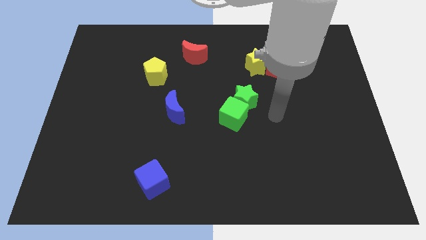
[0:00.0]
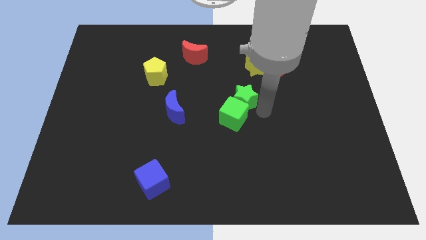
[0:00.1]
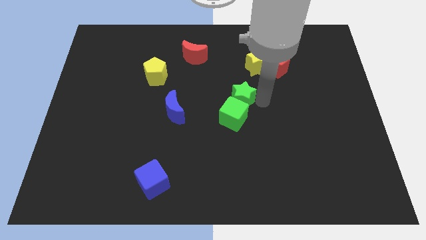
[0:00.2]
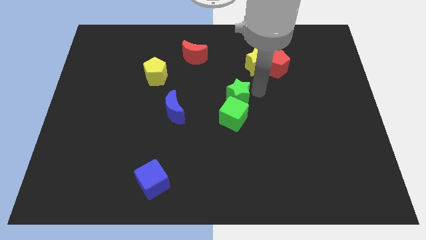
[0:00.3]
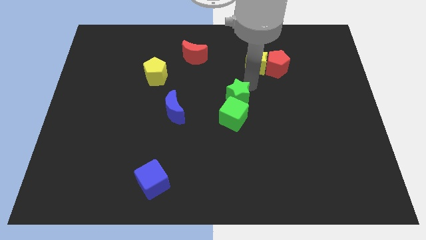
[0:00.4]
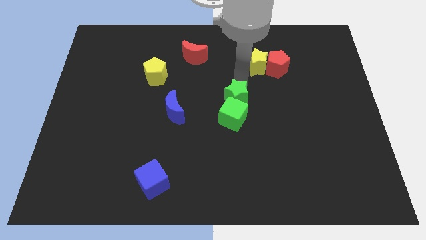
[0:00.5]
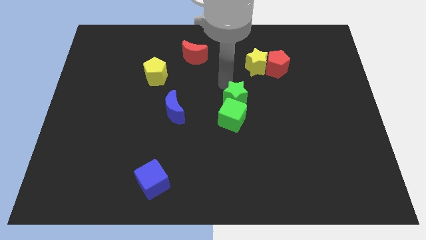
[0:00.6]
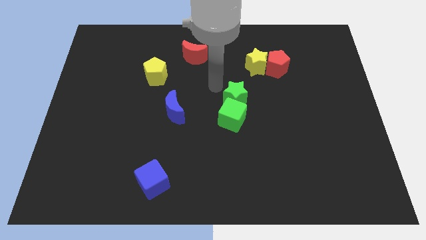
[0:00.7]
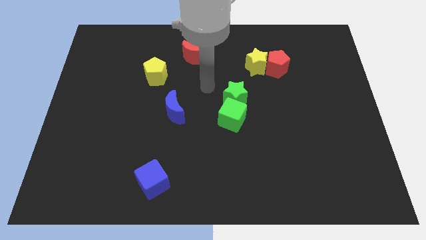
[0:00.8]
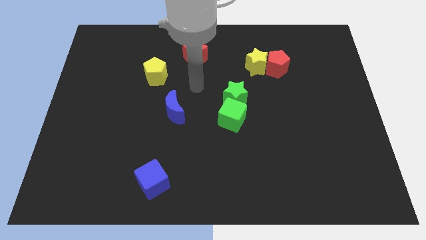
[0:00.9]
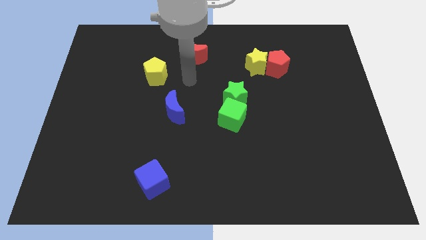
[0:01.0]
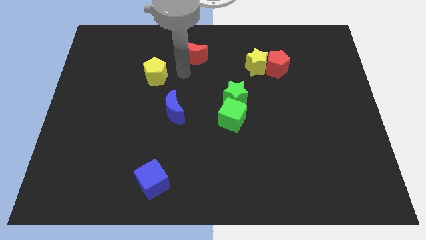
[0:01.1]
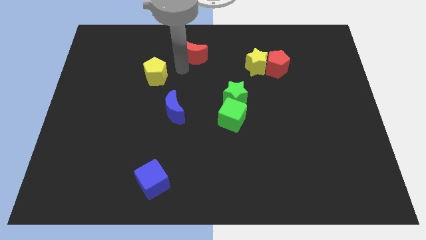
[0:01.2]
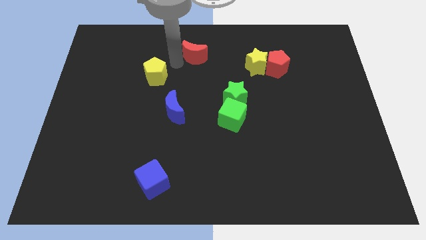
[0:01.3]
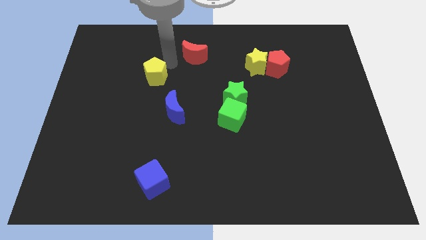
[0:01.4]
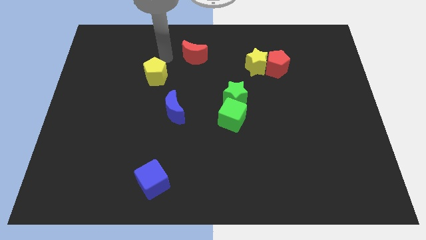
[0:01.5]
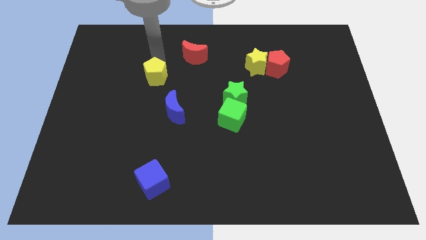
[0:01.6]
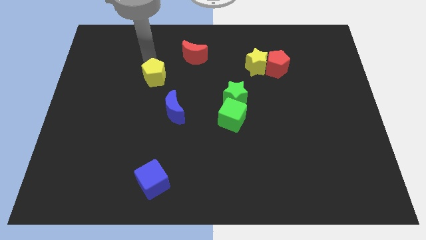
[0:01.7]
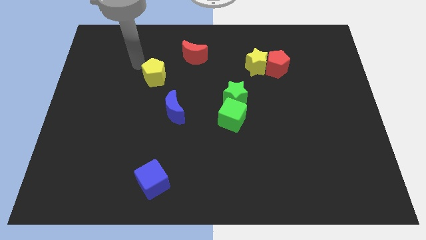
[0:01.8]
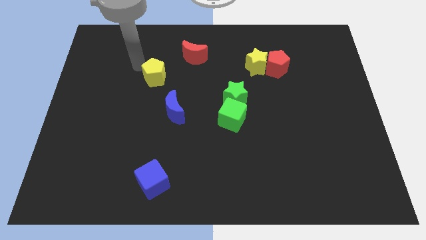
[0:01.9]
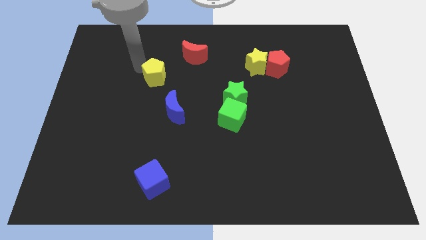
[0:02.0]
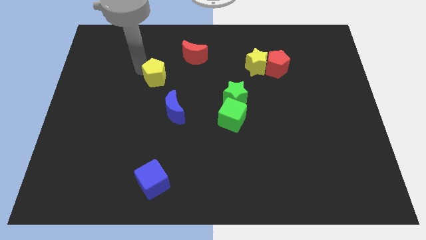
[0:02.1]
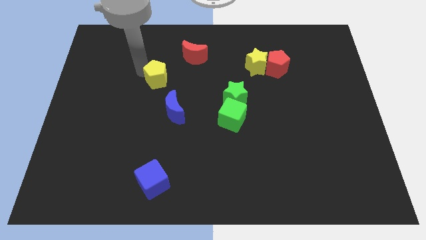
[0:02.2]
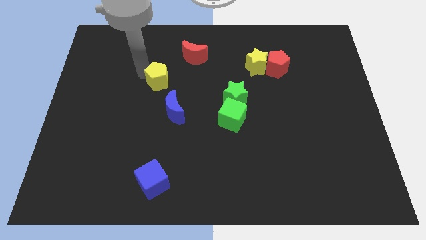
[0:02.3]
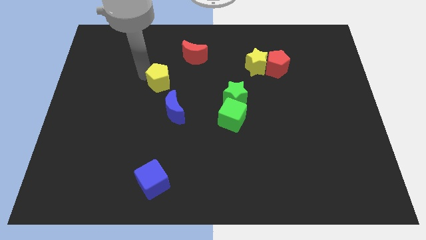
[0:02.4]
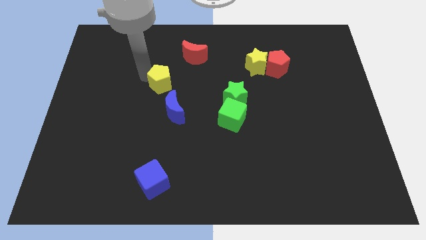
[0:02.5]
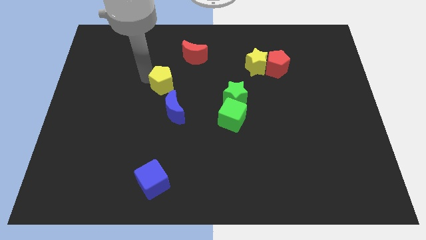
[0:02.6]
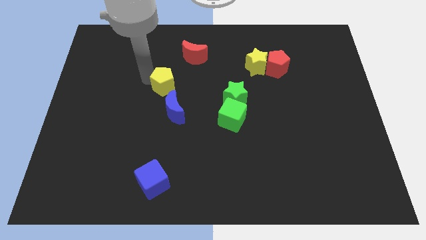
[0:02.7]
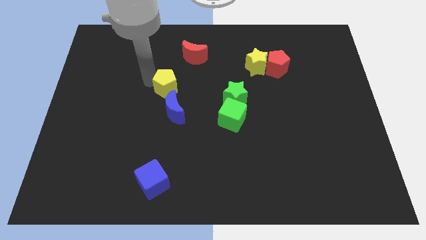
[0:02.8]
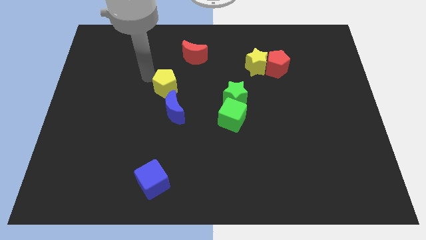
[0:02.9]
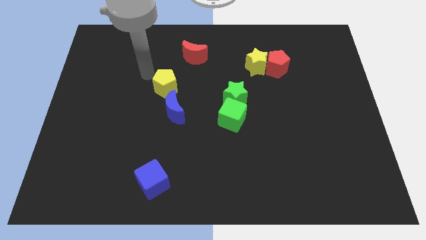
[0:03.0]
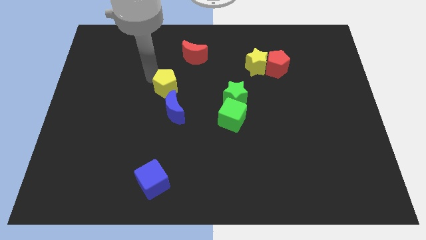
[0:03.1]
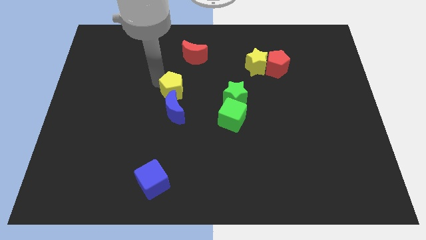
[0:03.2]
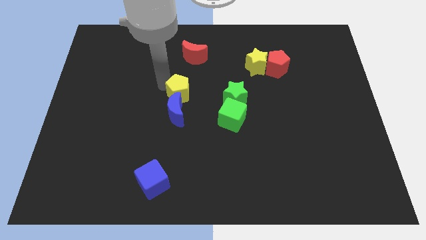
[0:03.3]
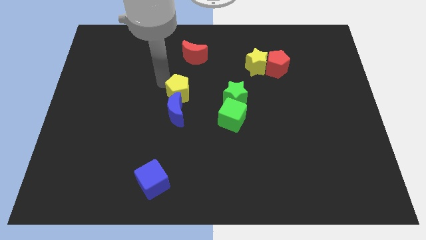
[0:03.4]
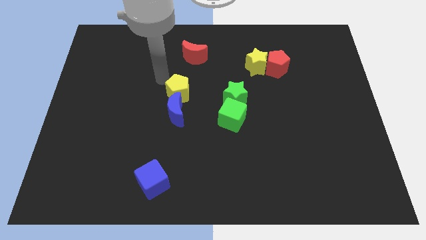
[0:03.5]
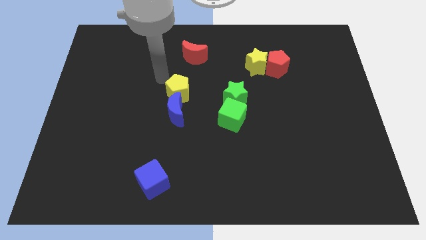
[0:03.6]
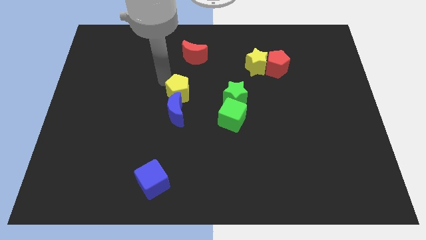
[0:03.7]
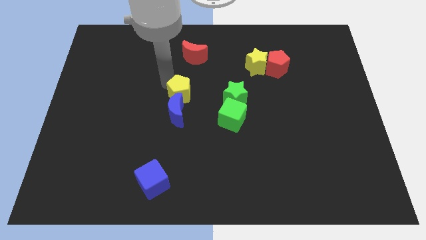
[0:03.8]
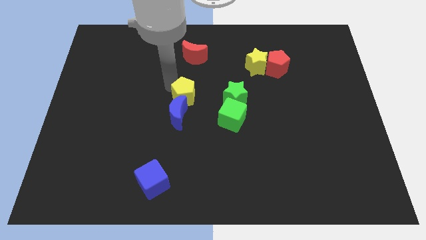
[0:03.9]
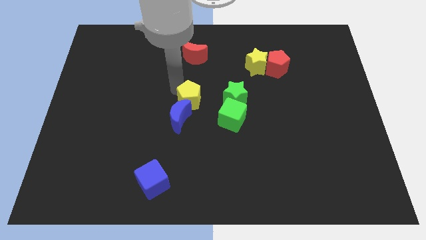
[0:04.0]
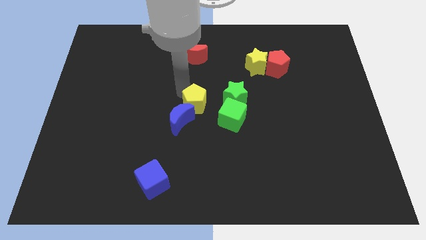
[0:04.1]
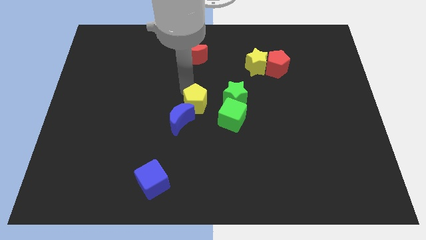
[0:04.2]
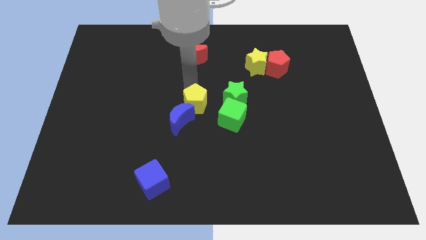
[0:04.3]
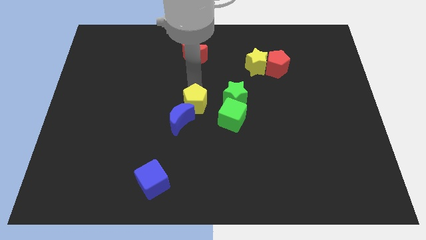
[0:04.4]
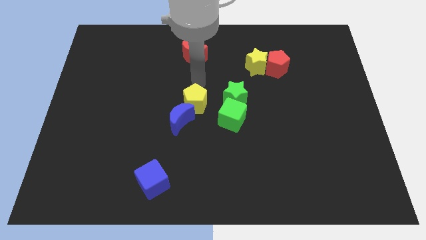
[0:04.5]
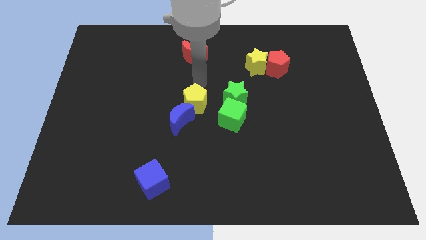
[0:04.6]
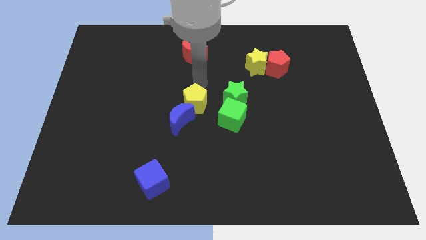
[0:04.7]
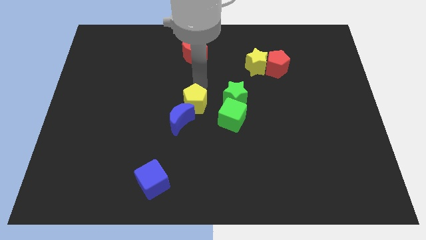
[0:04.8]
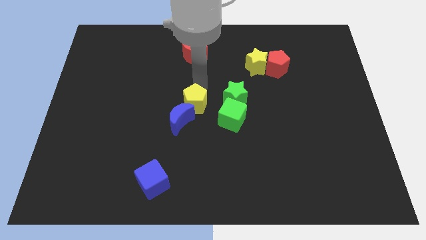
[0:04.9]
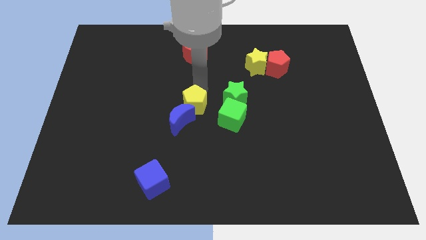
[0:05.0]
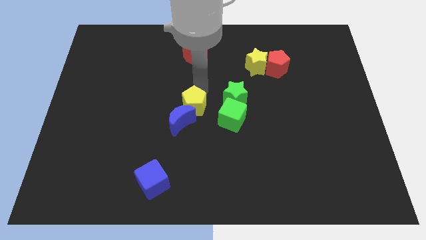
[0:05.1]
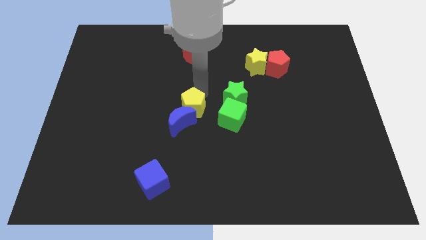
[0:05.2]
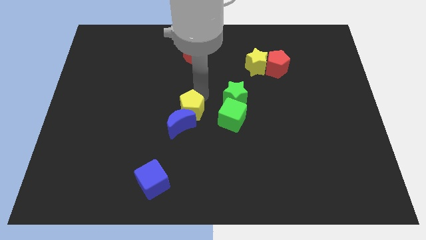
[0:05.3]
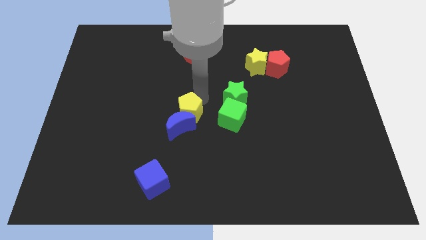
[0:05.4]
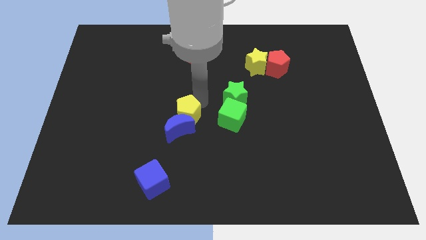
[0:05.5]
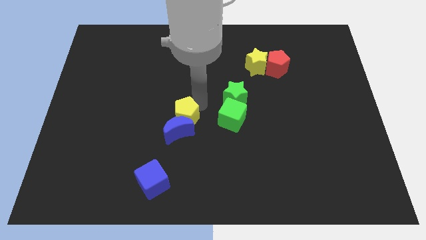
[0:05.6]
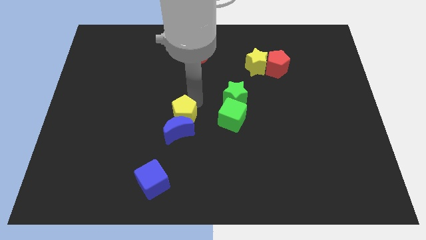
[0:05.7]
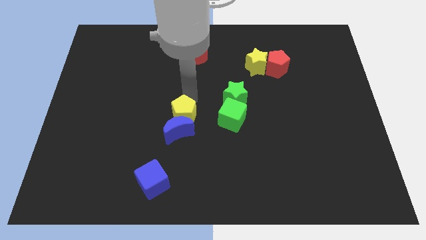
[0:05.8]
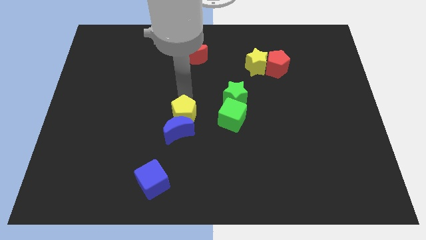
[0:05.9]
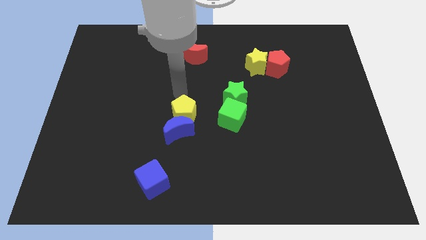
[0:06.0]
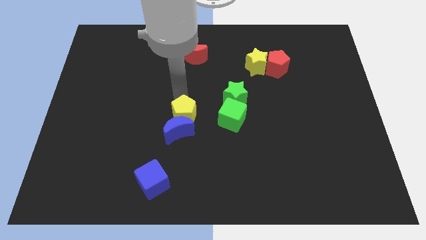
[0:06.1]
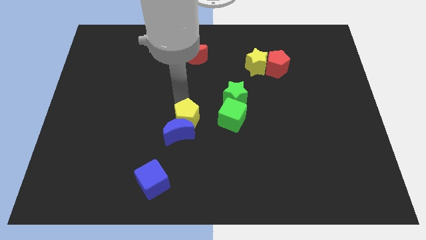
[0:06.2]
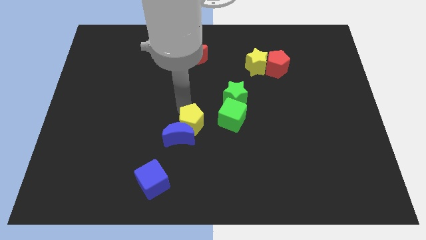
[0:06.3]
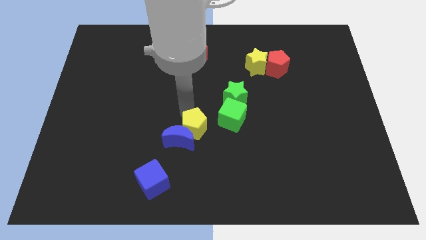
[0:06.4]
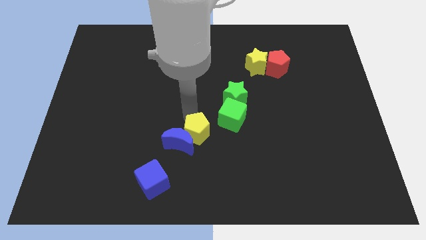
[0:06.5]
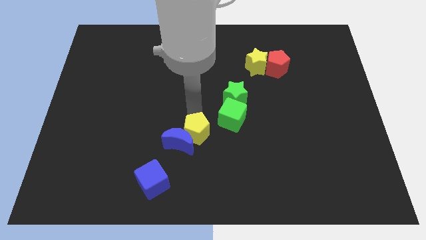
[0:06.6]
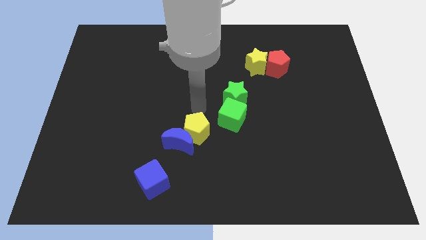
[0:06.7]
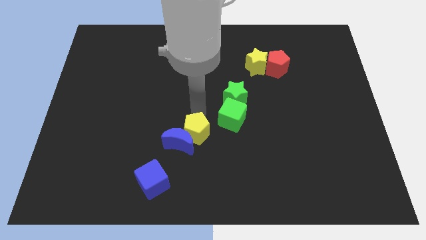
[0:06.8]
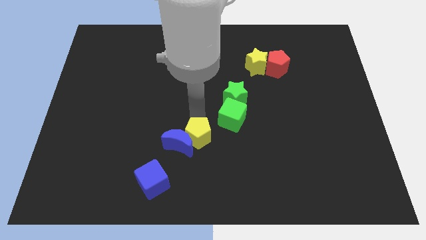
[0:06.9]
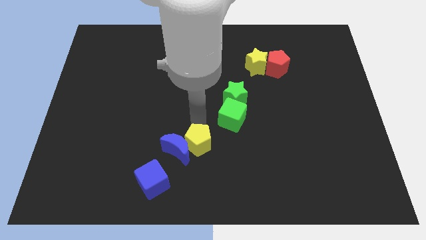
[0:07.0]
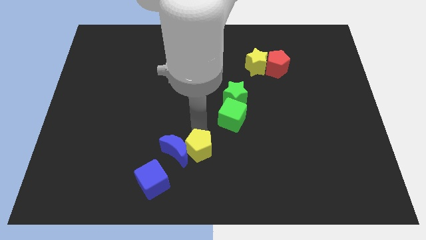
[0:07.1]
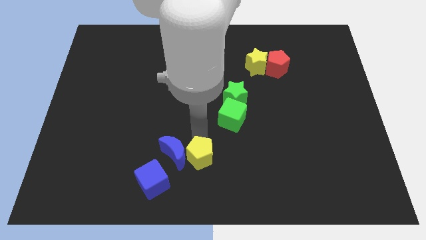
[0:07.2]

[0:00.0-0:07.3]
move the yellow pentagon to the bottom side
